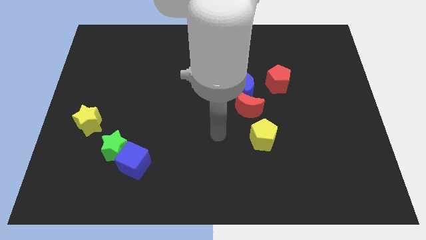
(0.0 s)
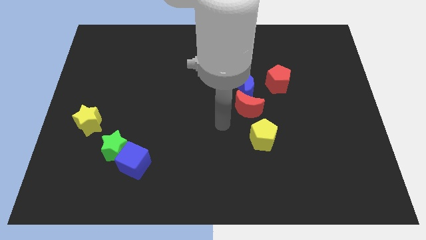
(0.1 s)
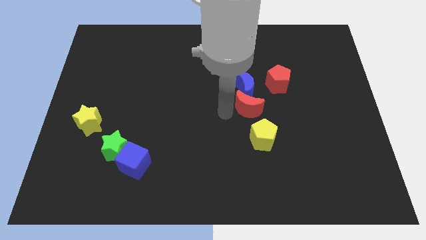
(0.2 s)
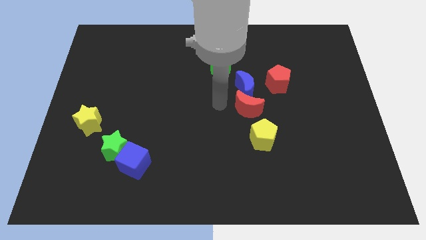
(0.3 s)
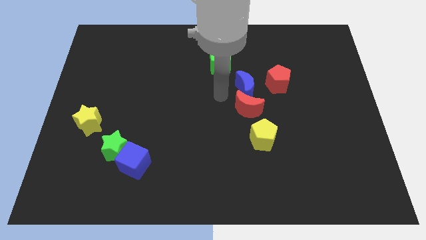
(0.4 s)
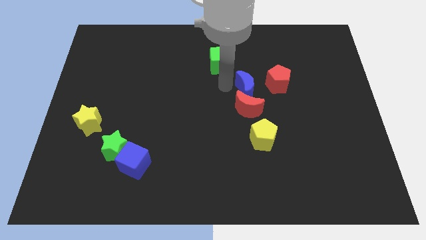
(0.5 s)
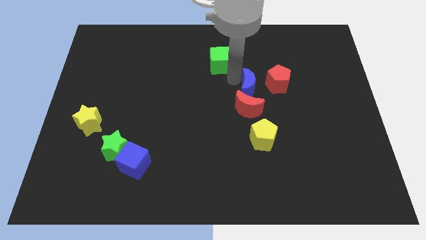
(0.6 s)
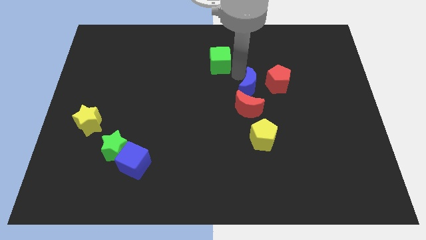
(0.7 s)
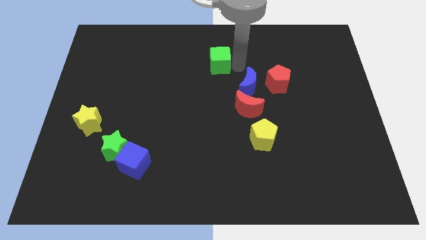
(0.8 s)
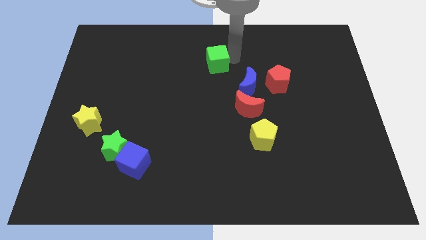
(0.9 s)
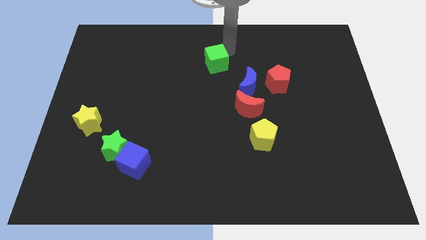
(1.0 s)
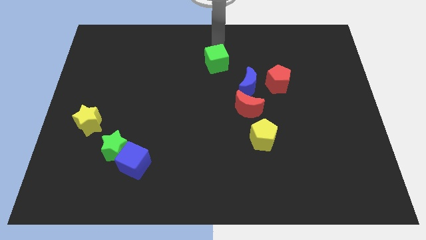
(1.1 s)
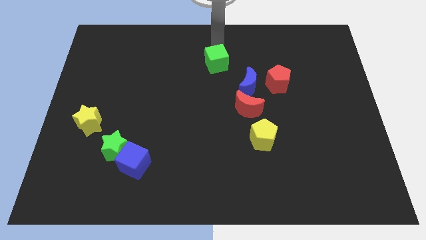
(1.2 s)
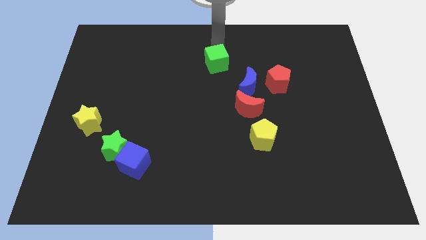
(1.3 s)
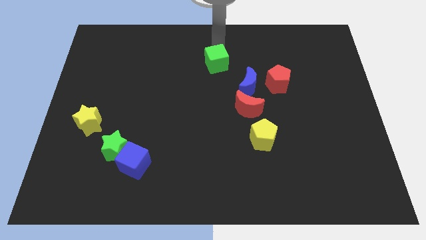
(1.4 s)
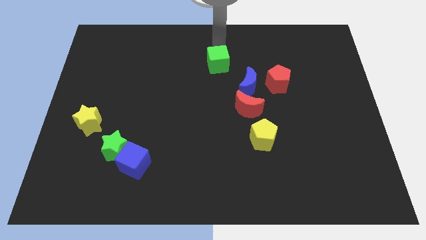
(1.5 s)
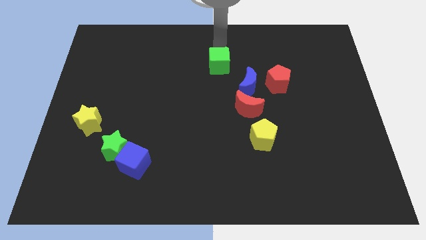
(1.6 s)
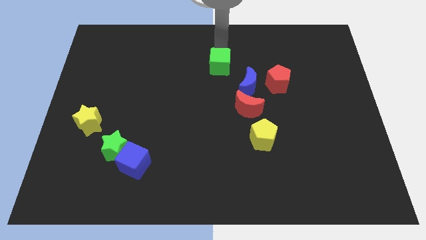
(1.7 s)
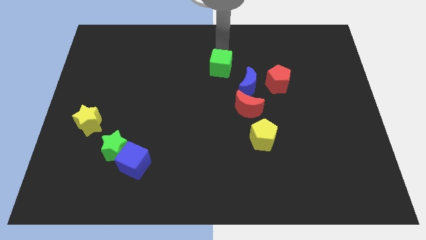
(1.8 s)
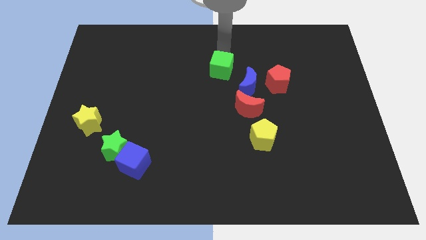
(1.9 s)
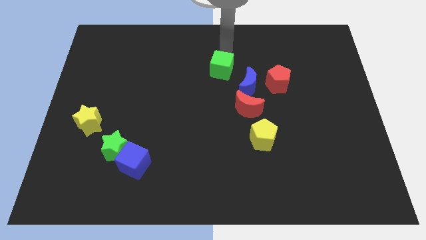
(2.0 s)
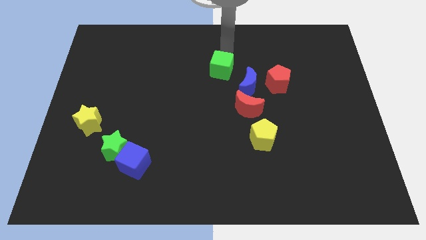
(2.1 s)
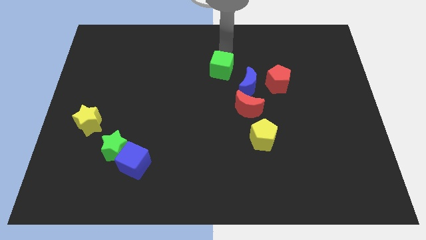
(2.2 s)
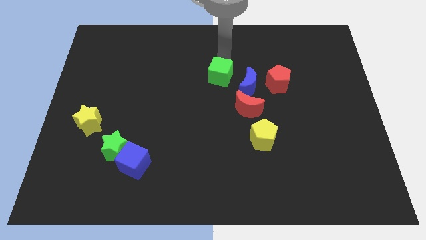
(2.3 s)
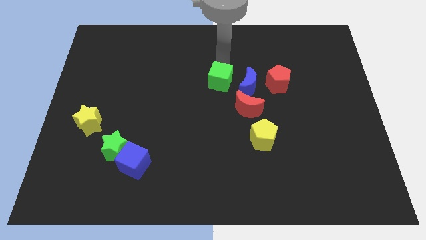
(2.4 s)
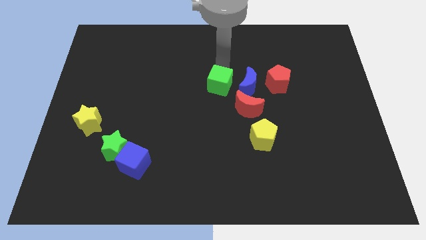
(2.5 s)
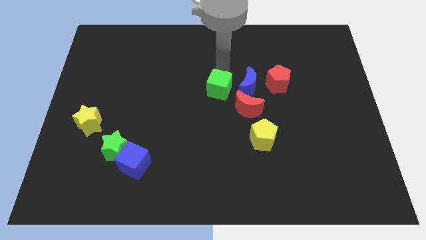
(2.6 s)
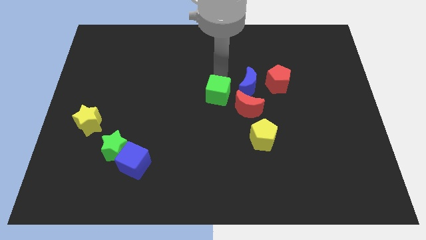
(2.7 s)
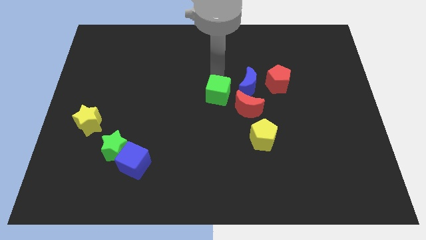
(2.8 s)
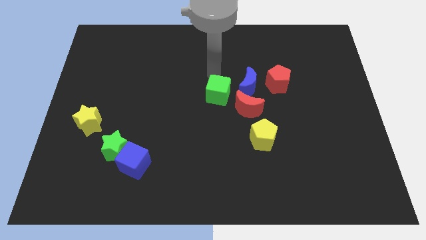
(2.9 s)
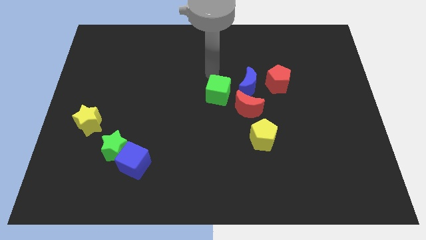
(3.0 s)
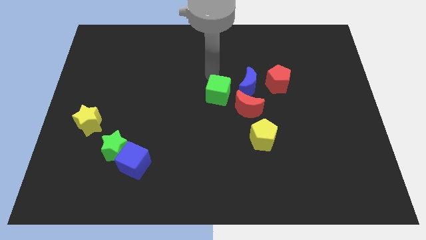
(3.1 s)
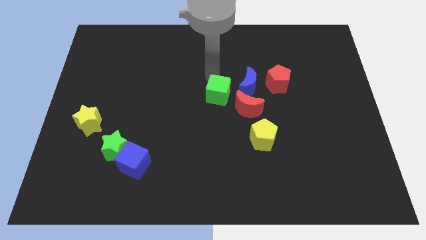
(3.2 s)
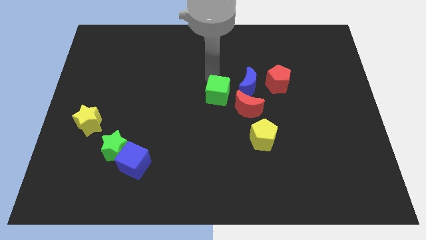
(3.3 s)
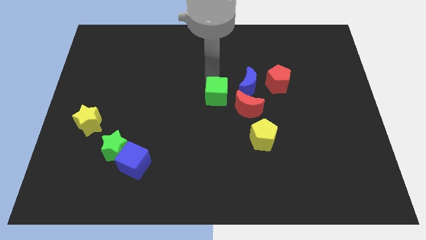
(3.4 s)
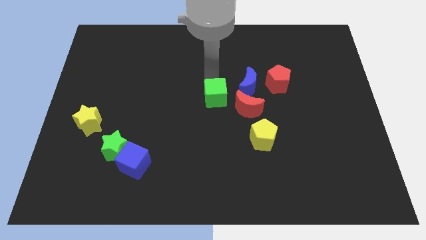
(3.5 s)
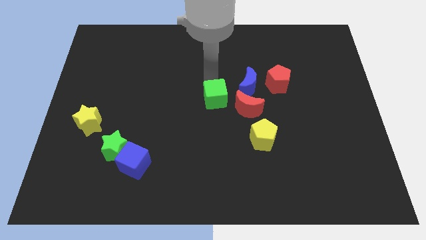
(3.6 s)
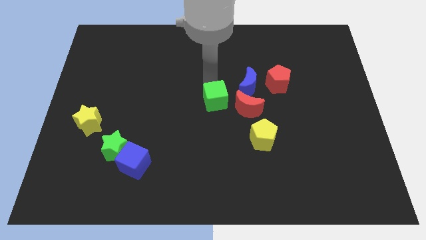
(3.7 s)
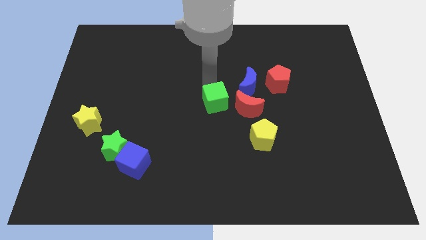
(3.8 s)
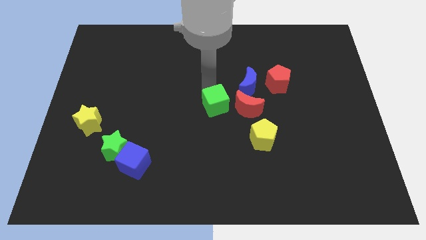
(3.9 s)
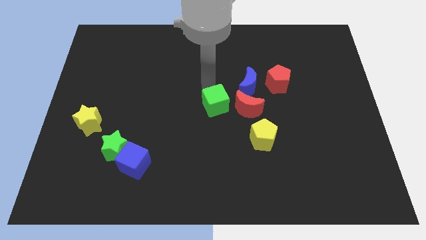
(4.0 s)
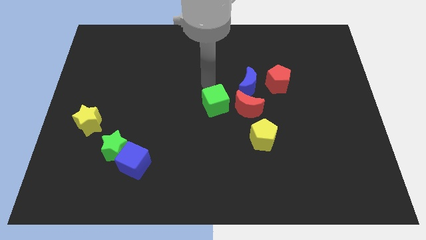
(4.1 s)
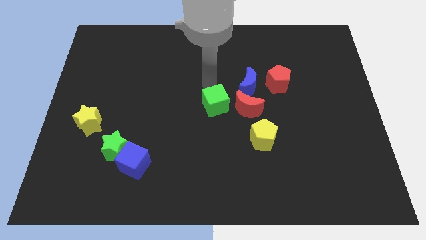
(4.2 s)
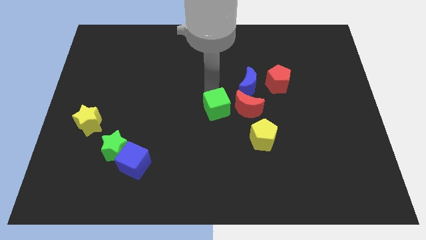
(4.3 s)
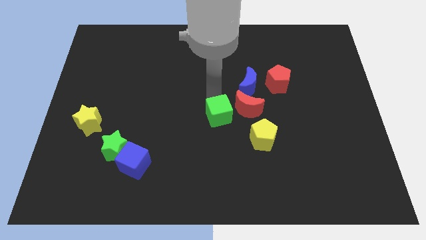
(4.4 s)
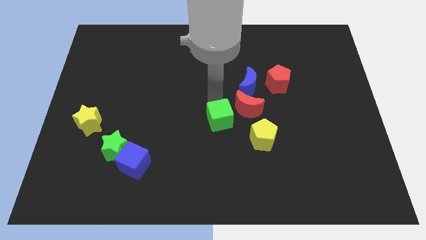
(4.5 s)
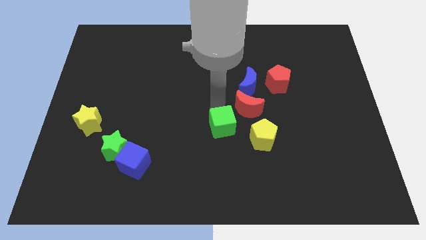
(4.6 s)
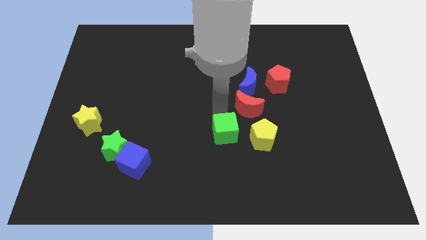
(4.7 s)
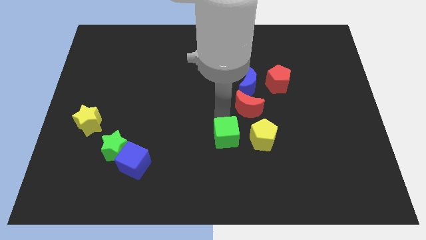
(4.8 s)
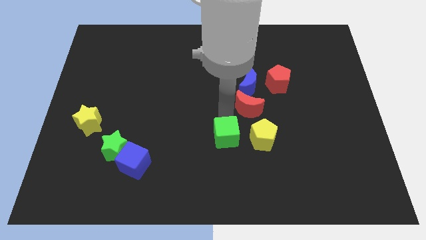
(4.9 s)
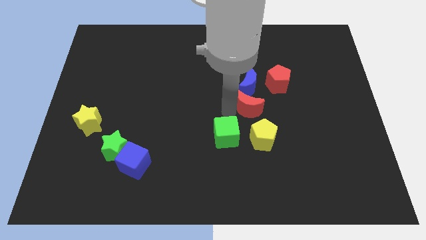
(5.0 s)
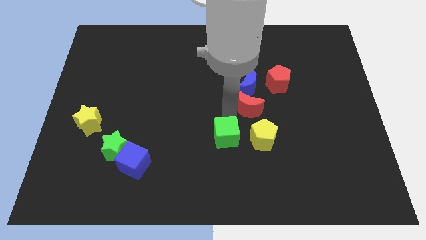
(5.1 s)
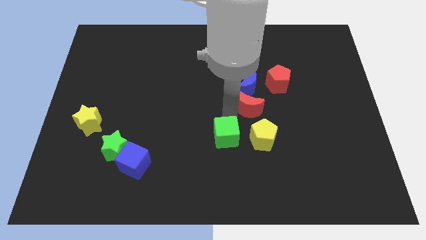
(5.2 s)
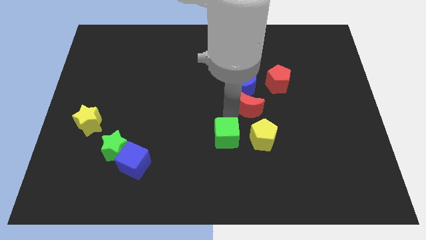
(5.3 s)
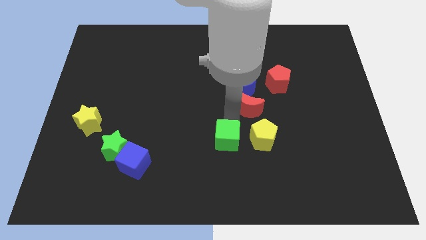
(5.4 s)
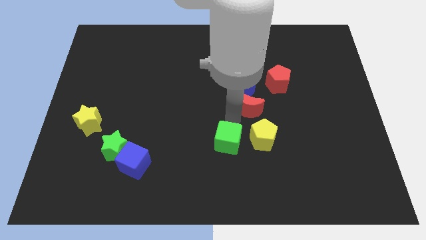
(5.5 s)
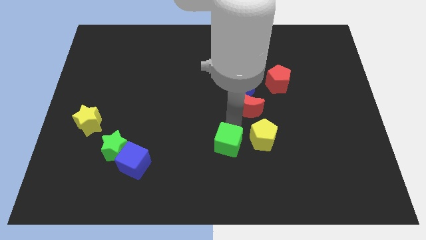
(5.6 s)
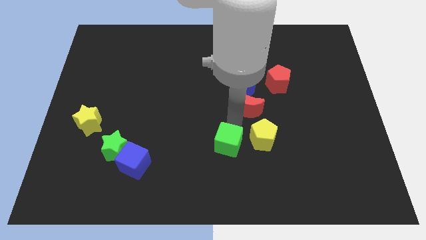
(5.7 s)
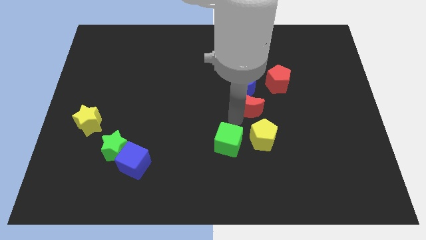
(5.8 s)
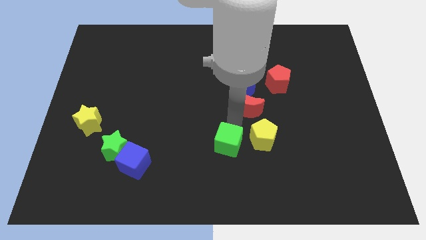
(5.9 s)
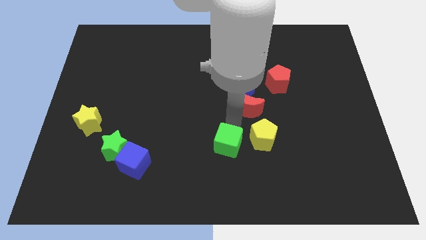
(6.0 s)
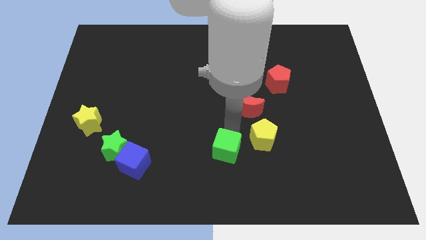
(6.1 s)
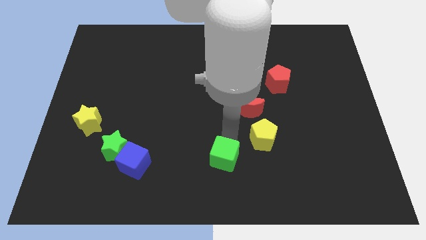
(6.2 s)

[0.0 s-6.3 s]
push the green cube to the bottom side
